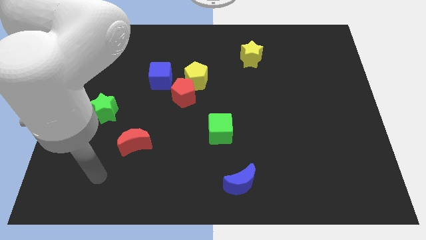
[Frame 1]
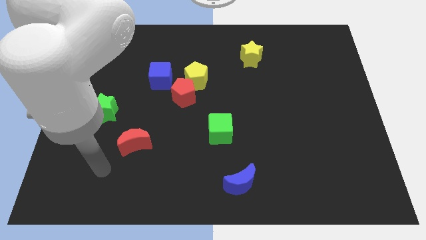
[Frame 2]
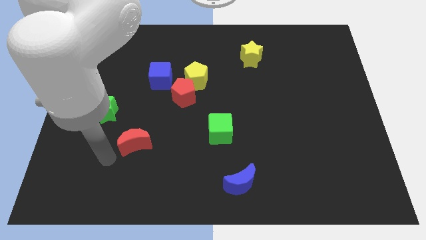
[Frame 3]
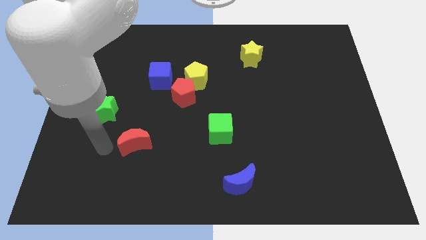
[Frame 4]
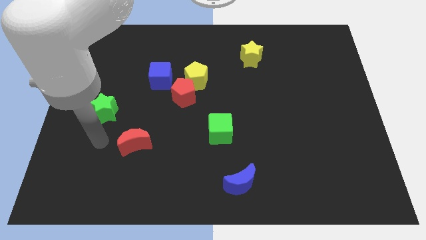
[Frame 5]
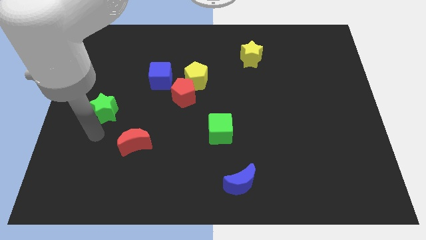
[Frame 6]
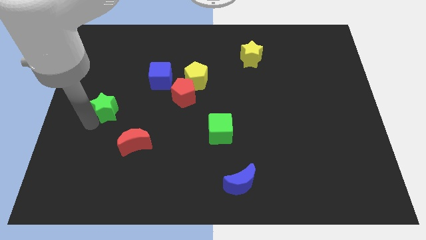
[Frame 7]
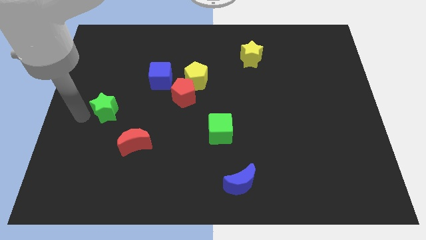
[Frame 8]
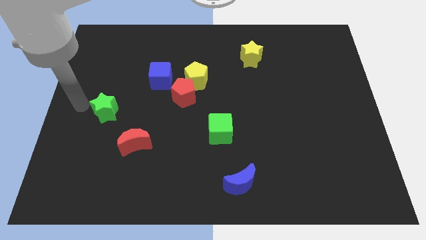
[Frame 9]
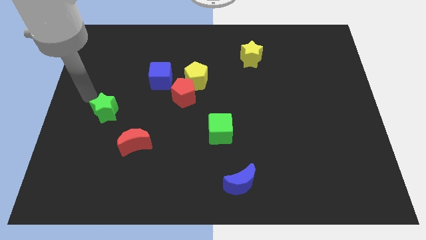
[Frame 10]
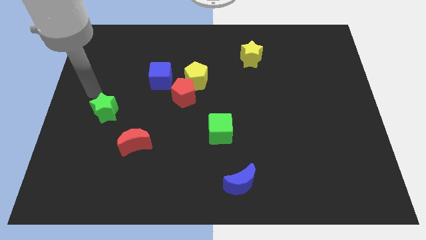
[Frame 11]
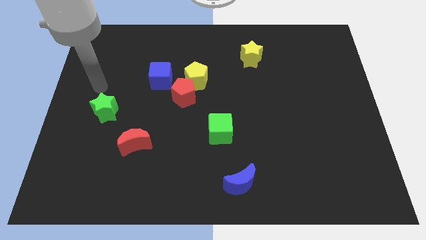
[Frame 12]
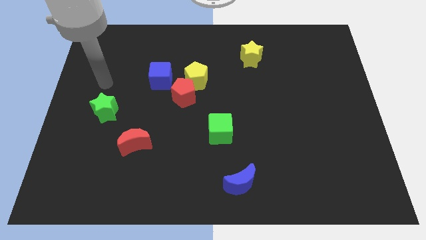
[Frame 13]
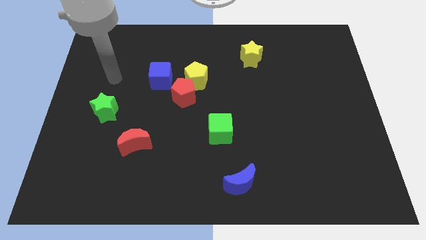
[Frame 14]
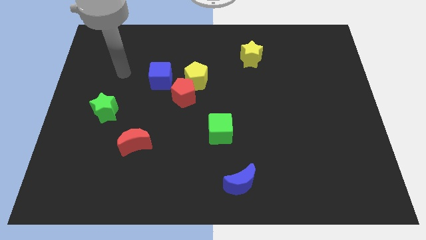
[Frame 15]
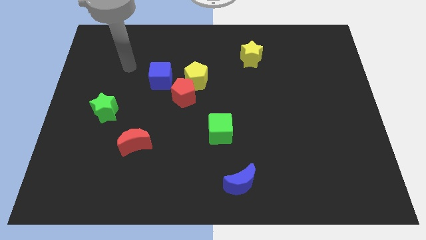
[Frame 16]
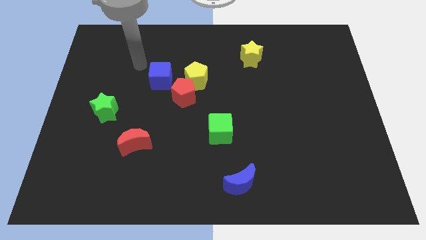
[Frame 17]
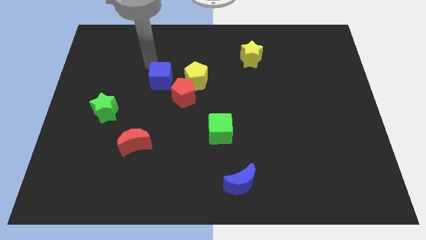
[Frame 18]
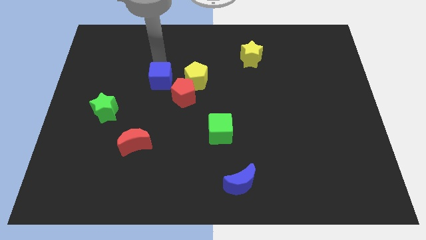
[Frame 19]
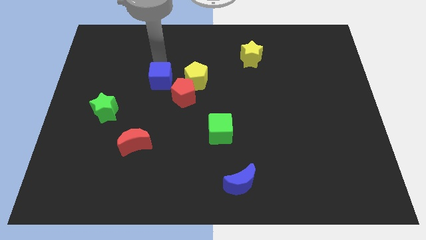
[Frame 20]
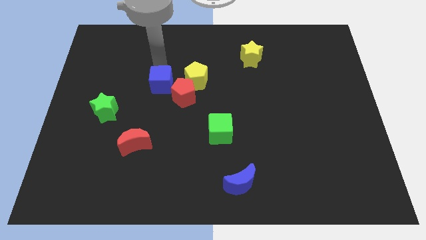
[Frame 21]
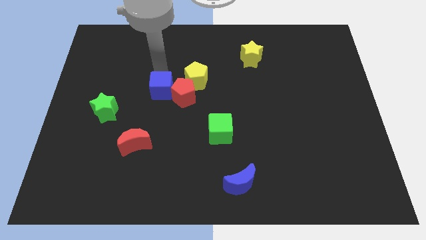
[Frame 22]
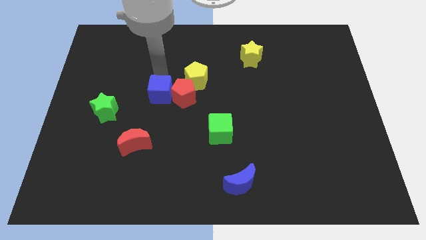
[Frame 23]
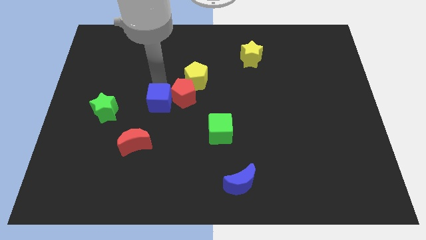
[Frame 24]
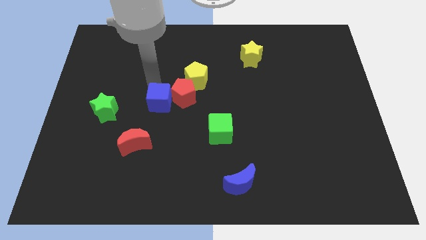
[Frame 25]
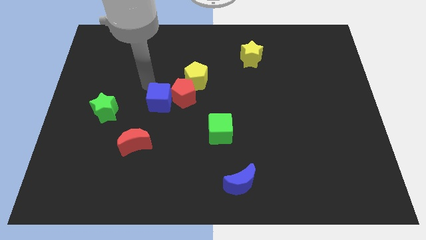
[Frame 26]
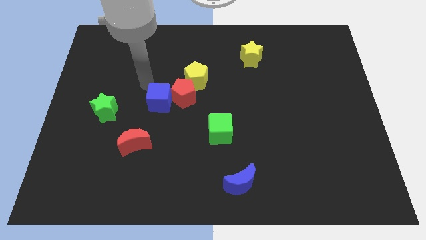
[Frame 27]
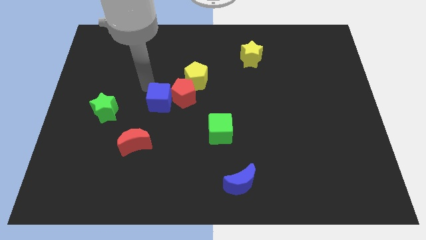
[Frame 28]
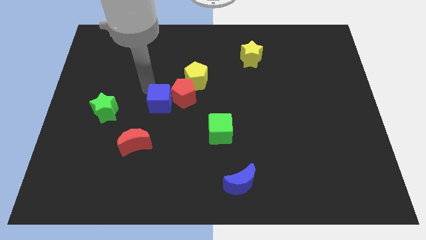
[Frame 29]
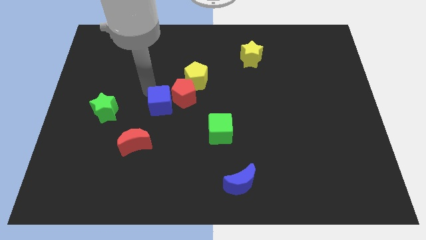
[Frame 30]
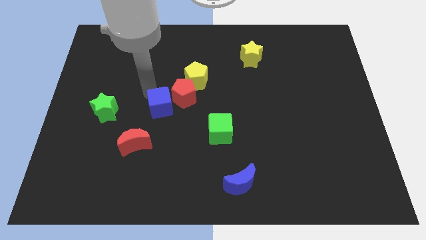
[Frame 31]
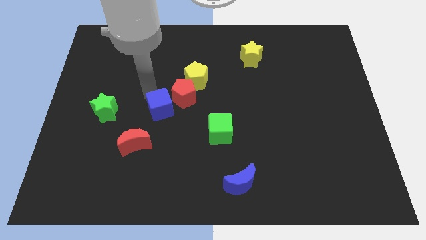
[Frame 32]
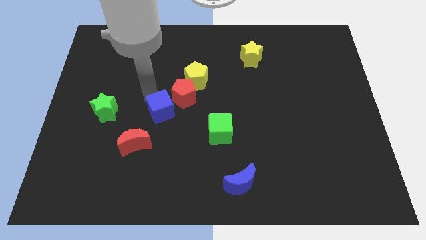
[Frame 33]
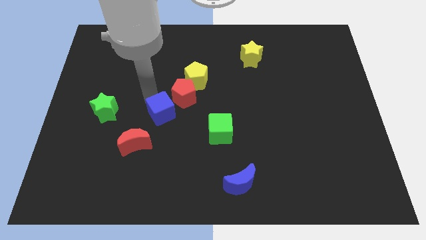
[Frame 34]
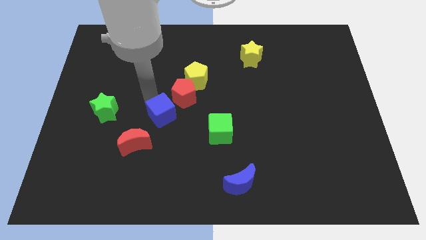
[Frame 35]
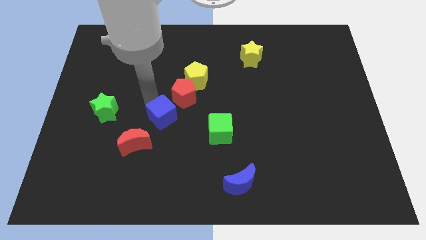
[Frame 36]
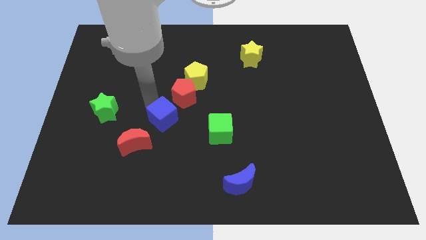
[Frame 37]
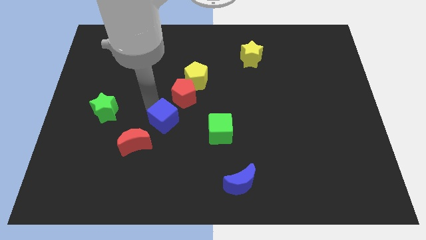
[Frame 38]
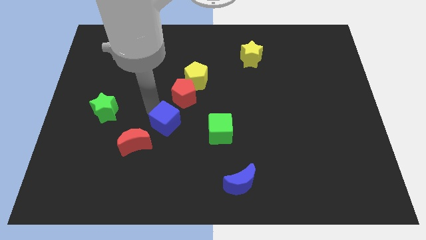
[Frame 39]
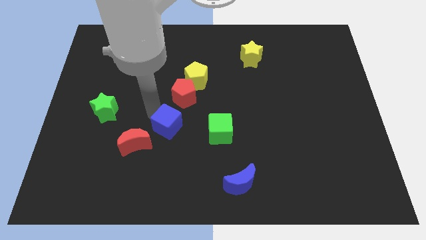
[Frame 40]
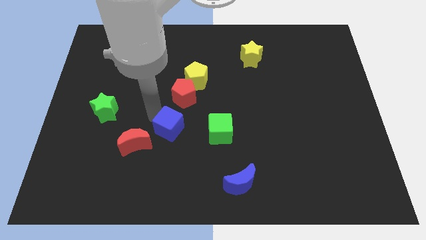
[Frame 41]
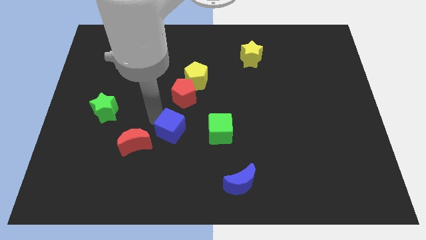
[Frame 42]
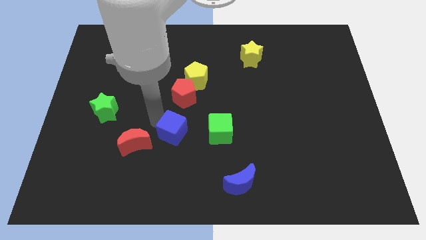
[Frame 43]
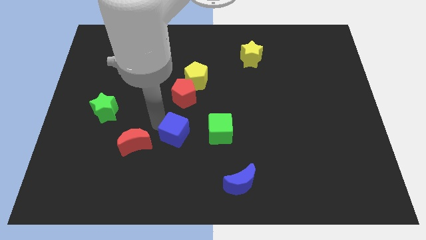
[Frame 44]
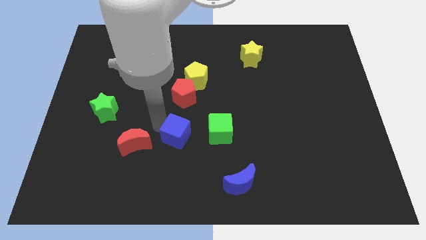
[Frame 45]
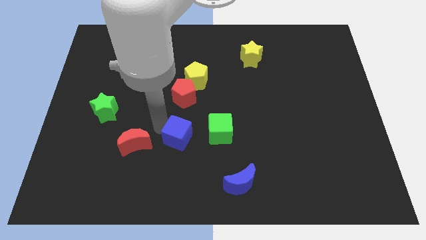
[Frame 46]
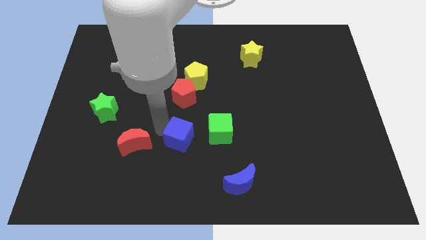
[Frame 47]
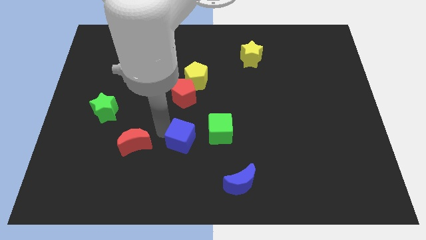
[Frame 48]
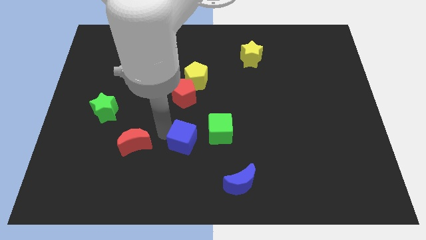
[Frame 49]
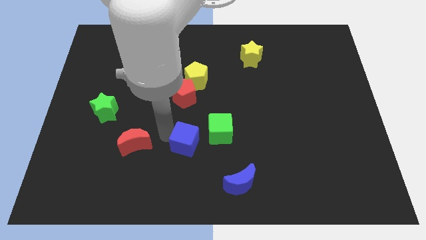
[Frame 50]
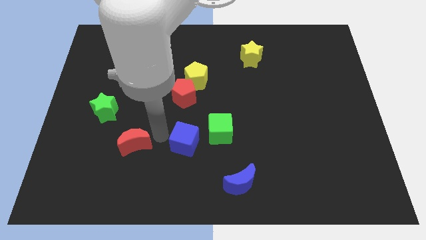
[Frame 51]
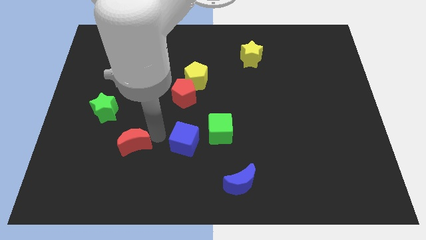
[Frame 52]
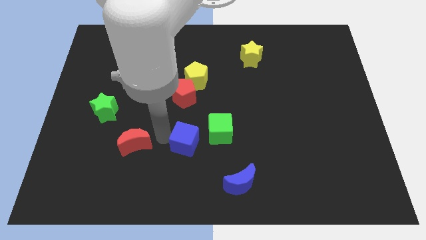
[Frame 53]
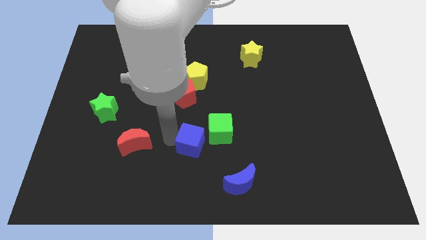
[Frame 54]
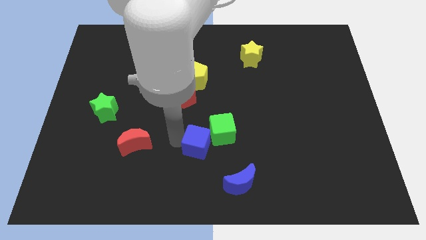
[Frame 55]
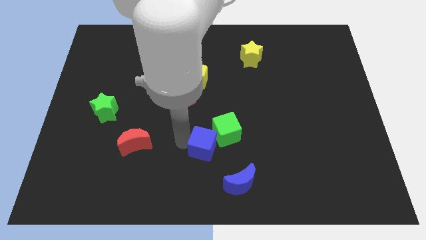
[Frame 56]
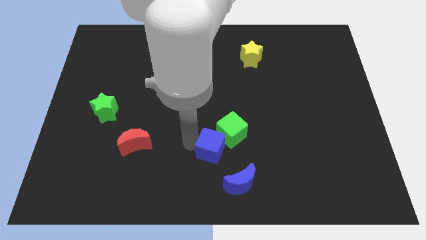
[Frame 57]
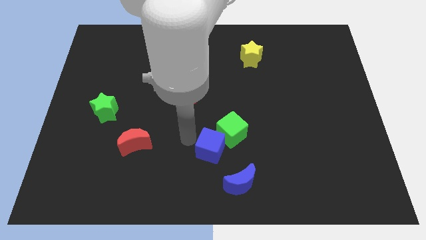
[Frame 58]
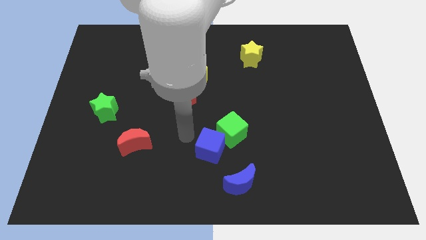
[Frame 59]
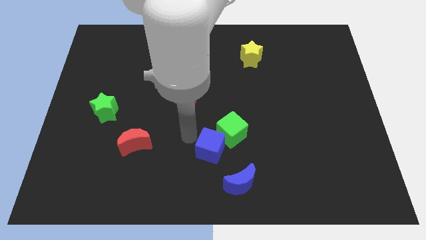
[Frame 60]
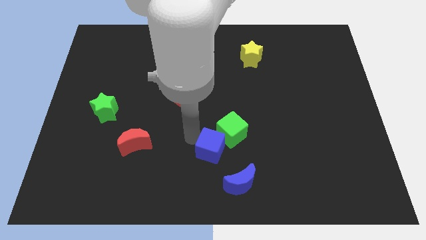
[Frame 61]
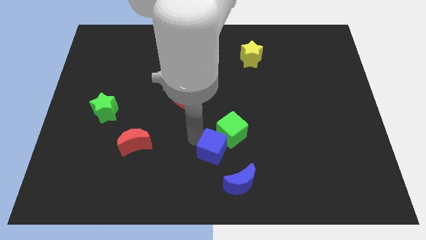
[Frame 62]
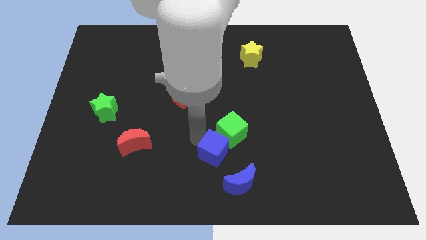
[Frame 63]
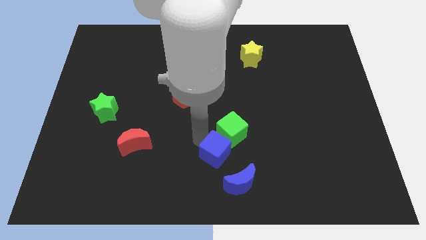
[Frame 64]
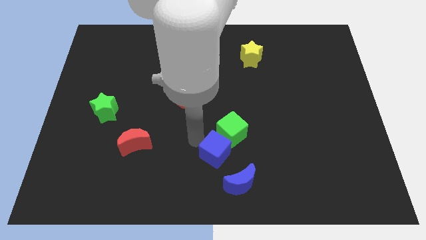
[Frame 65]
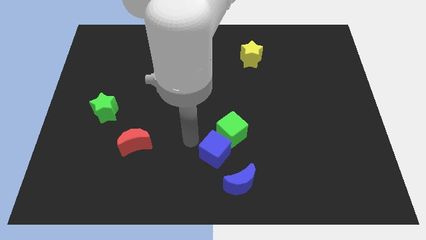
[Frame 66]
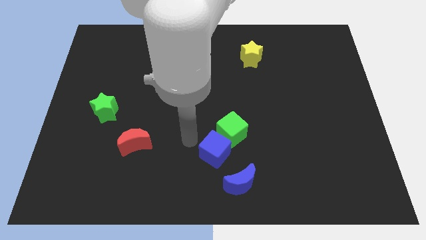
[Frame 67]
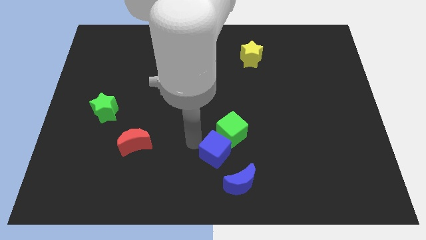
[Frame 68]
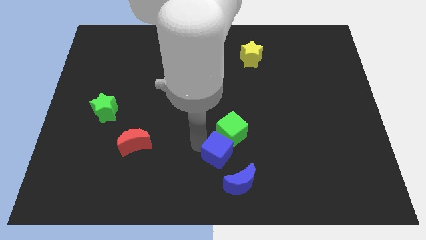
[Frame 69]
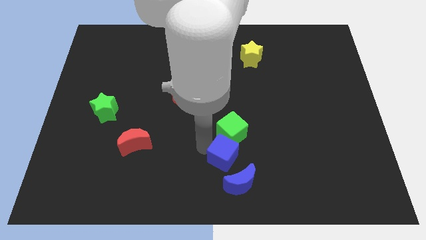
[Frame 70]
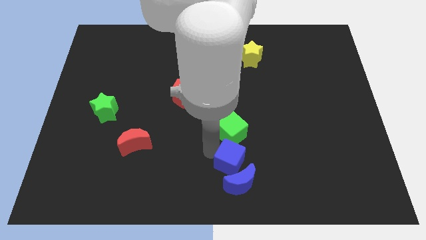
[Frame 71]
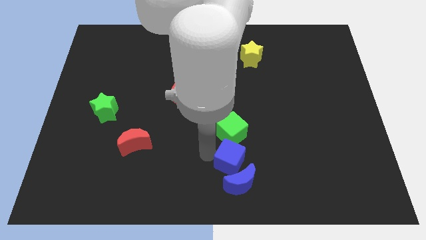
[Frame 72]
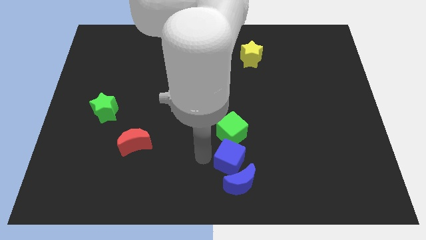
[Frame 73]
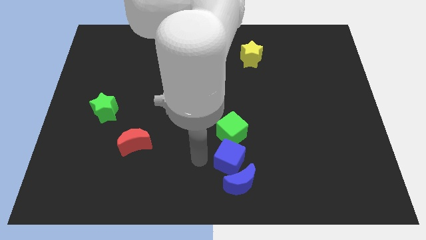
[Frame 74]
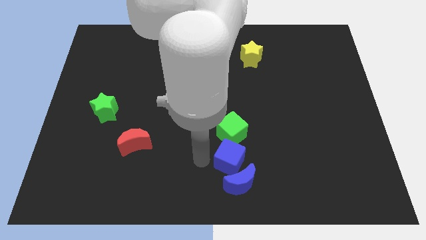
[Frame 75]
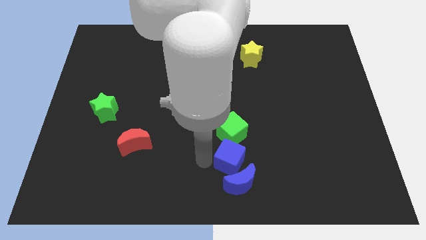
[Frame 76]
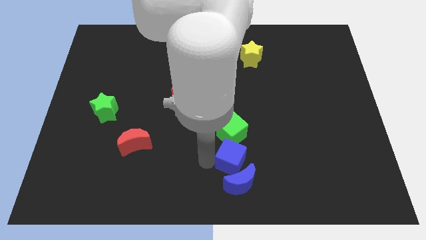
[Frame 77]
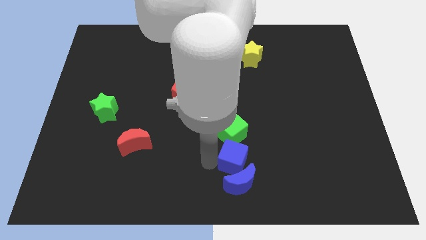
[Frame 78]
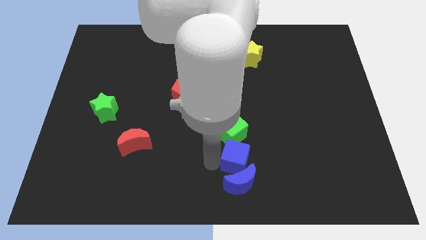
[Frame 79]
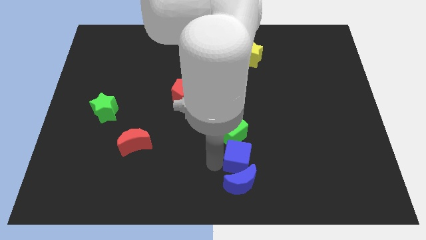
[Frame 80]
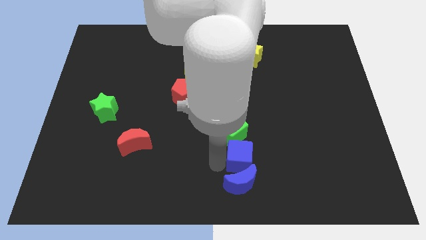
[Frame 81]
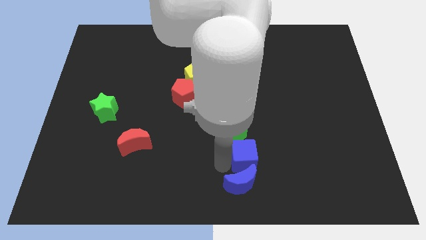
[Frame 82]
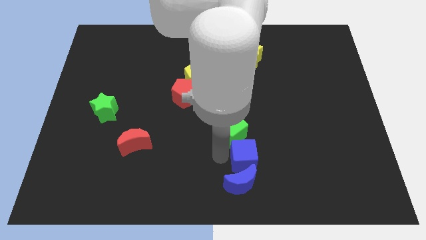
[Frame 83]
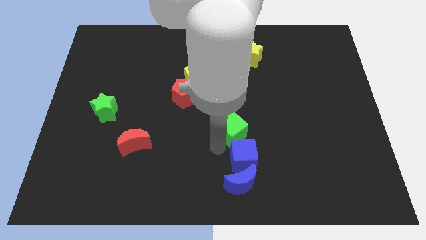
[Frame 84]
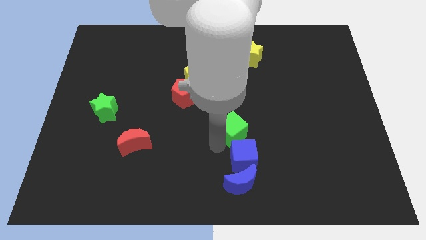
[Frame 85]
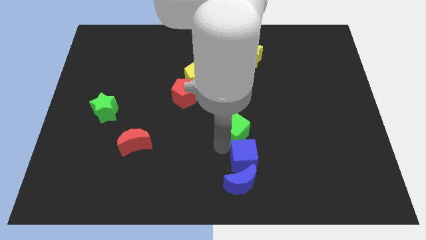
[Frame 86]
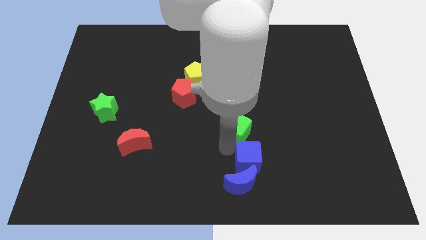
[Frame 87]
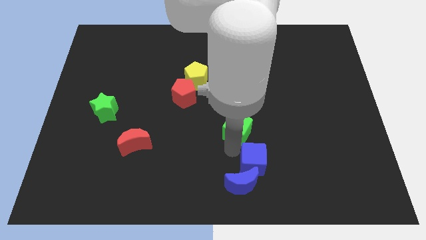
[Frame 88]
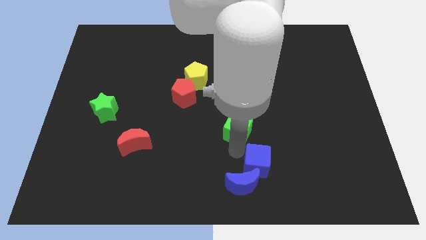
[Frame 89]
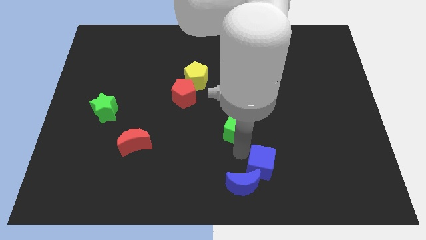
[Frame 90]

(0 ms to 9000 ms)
move the blue cube to the right of the blue moon
